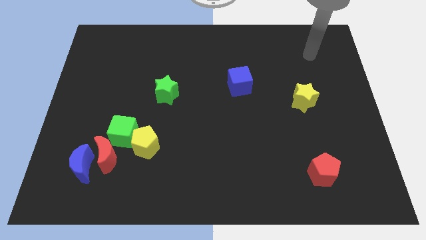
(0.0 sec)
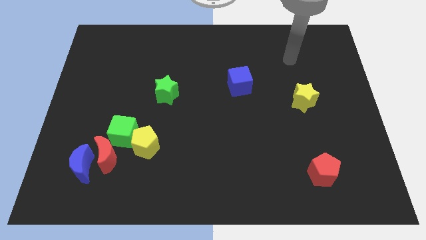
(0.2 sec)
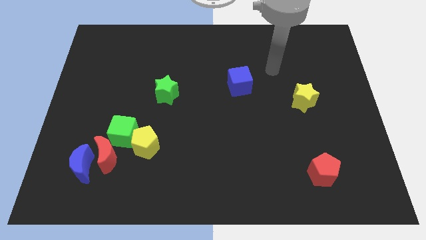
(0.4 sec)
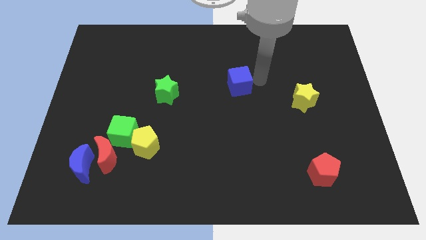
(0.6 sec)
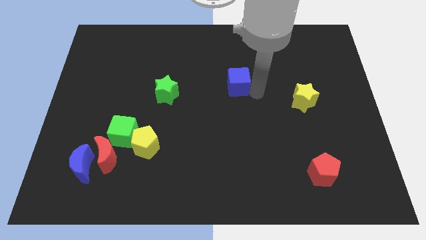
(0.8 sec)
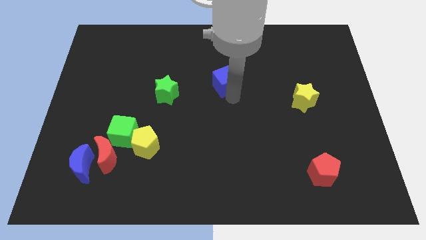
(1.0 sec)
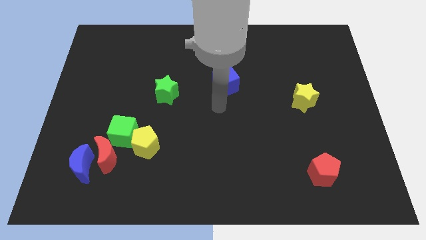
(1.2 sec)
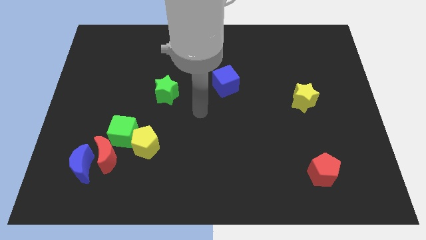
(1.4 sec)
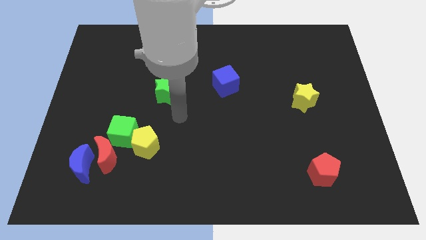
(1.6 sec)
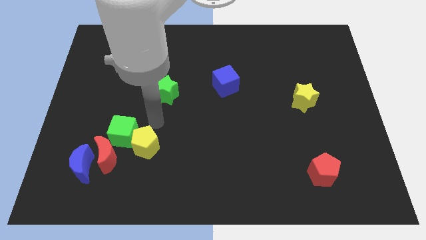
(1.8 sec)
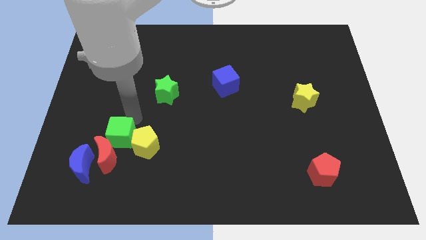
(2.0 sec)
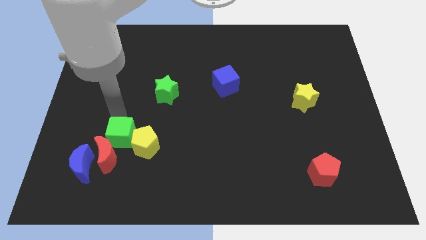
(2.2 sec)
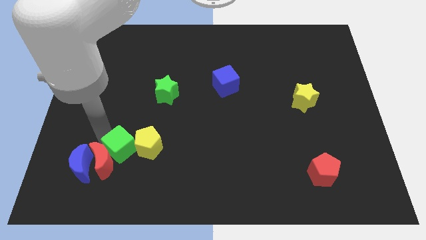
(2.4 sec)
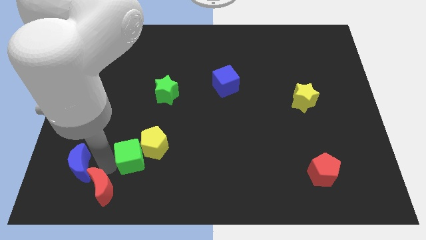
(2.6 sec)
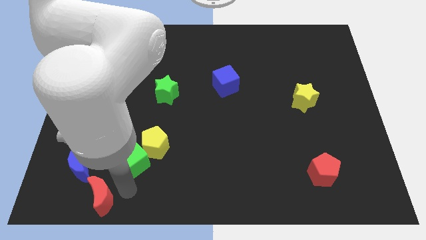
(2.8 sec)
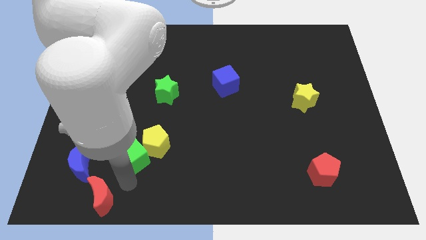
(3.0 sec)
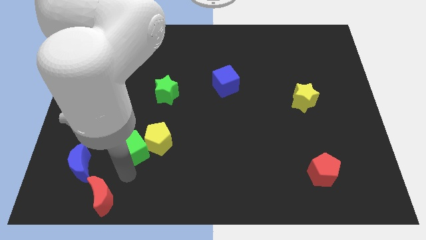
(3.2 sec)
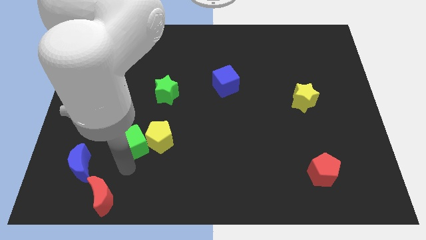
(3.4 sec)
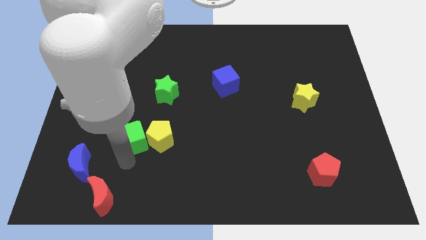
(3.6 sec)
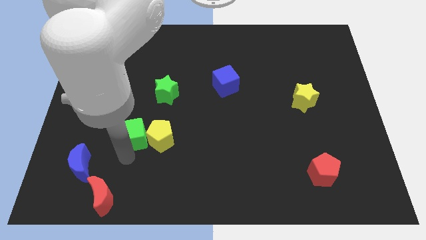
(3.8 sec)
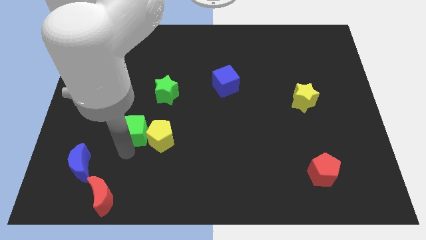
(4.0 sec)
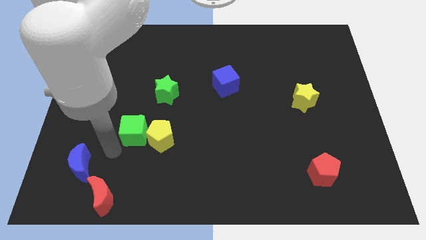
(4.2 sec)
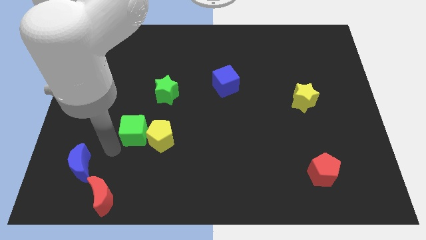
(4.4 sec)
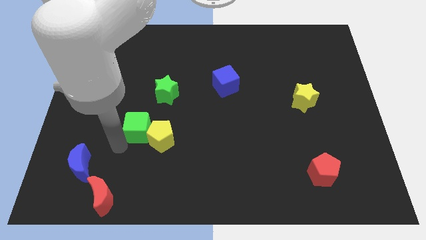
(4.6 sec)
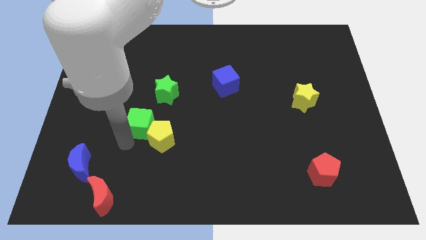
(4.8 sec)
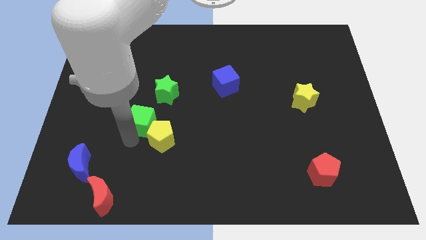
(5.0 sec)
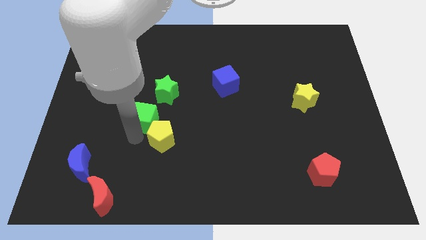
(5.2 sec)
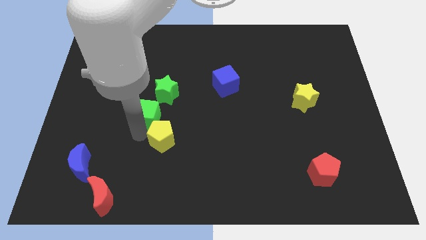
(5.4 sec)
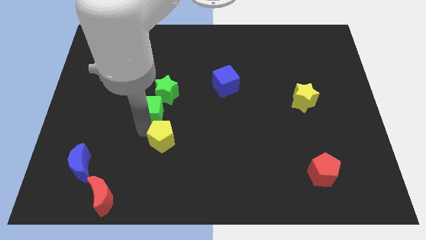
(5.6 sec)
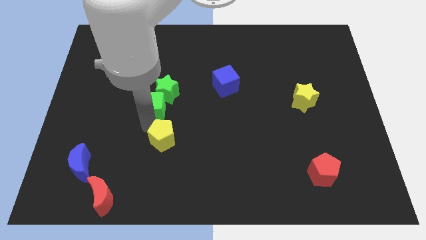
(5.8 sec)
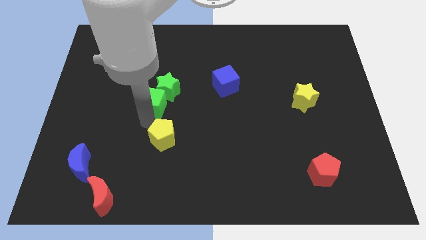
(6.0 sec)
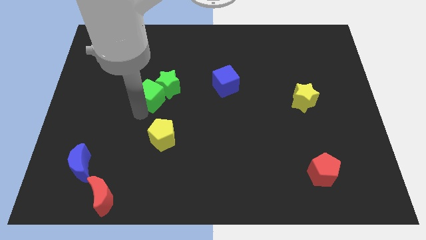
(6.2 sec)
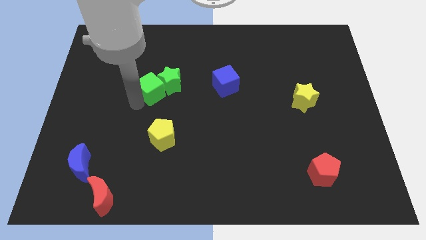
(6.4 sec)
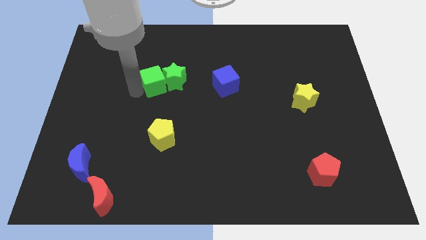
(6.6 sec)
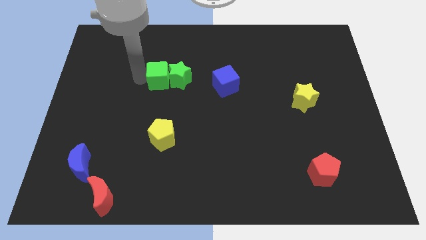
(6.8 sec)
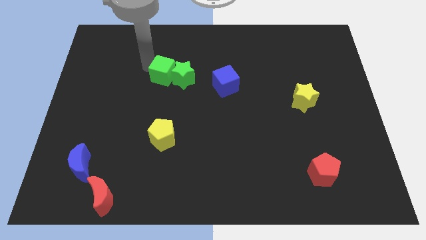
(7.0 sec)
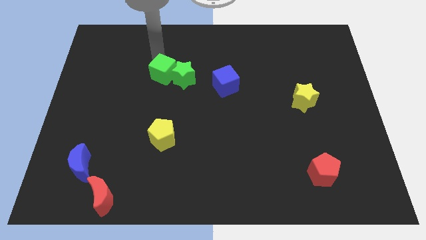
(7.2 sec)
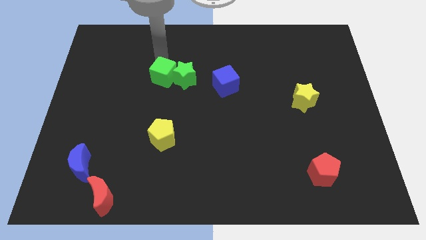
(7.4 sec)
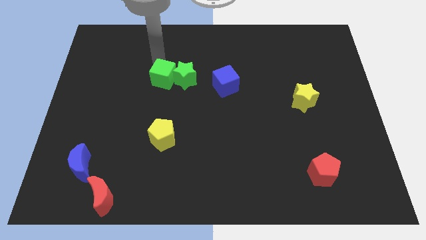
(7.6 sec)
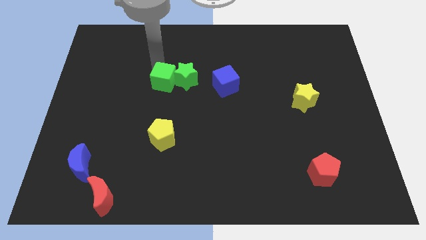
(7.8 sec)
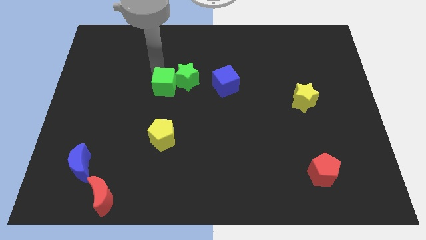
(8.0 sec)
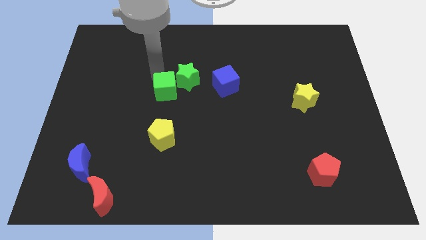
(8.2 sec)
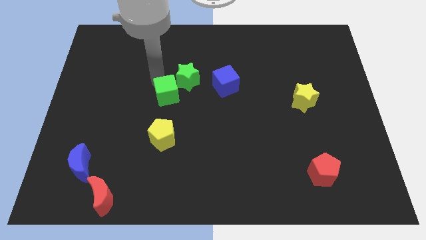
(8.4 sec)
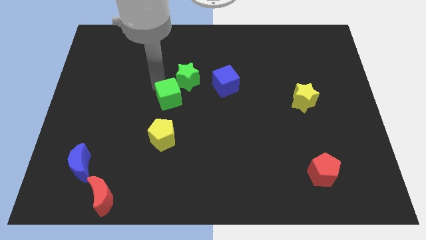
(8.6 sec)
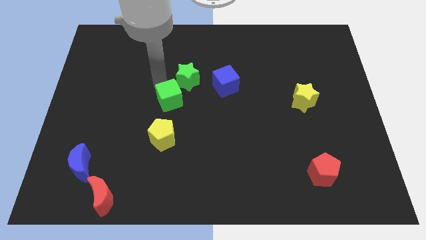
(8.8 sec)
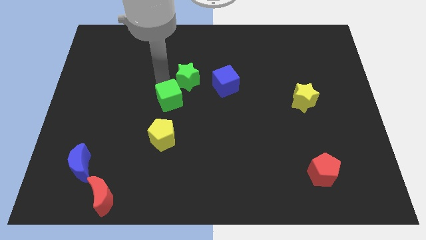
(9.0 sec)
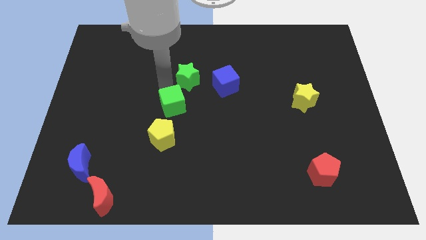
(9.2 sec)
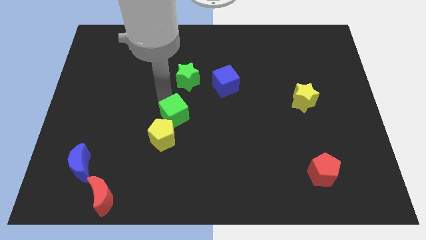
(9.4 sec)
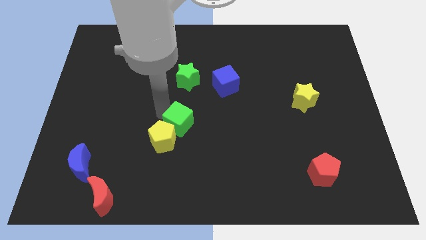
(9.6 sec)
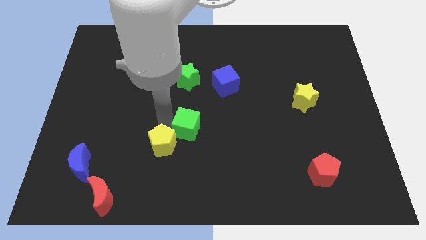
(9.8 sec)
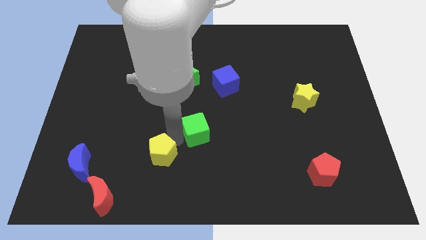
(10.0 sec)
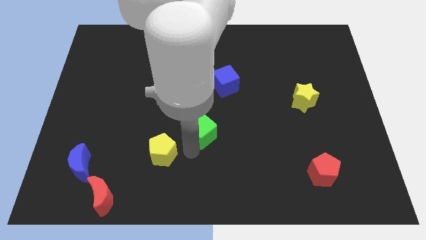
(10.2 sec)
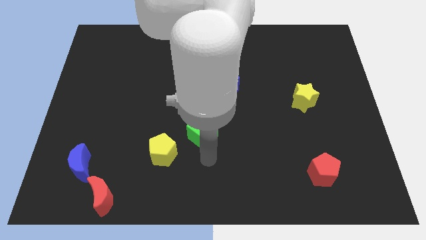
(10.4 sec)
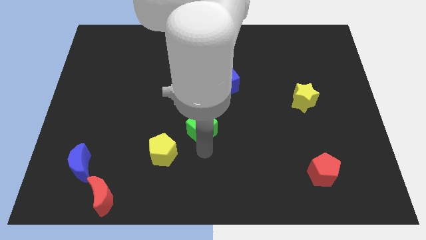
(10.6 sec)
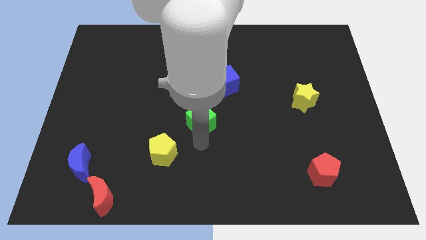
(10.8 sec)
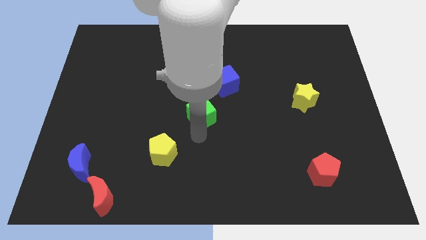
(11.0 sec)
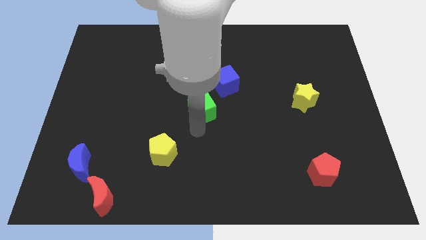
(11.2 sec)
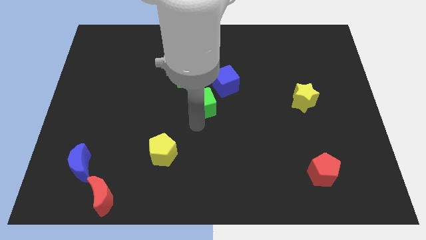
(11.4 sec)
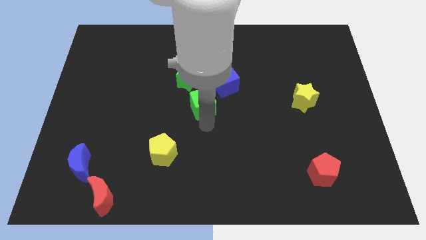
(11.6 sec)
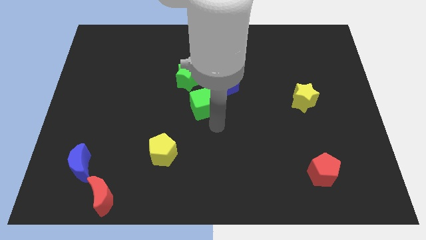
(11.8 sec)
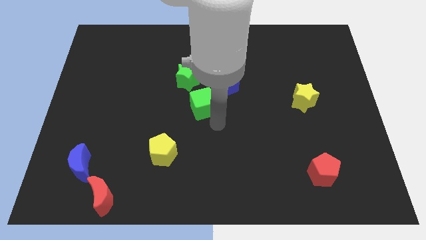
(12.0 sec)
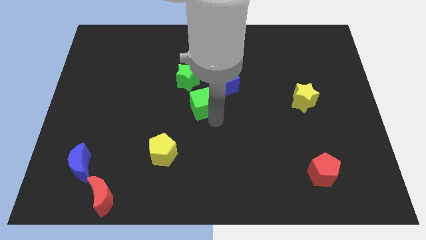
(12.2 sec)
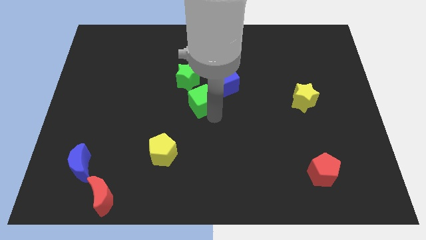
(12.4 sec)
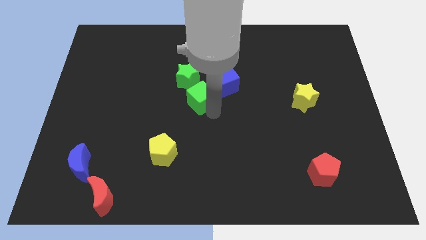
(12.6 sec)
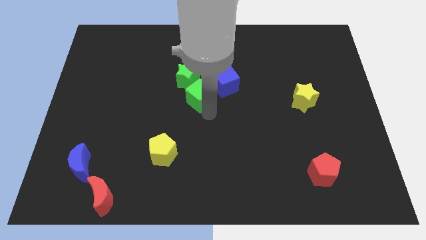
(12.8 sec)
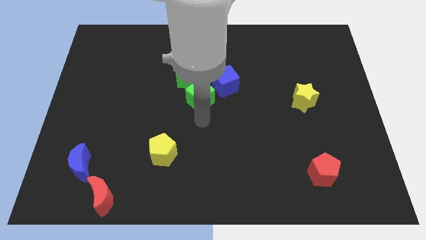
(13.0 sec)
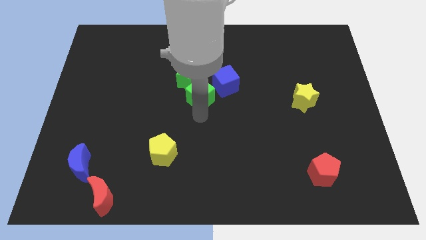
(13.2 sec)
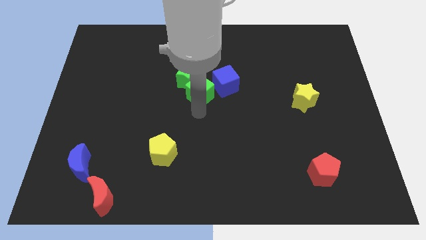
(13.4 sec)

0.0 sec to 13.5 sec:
move the green cube up and right diagonally

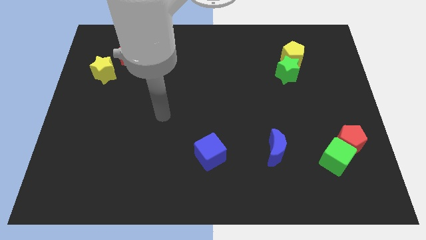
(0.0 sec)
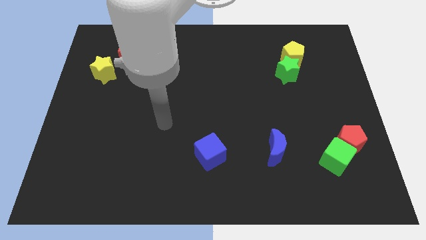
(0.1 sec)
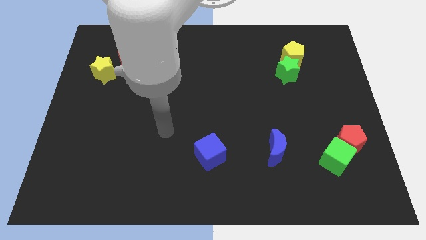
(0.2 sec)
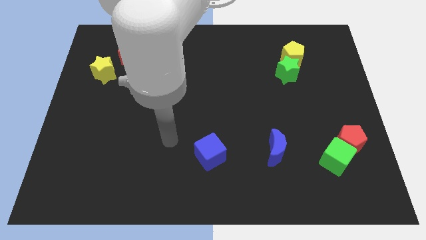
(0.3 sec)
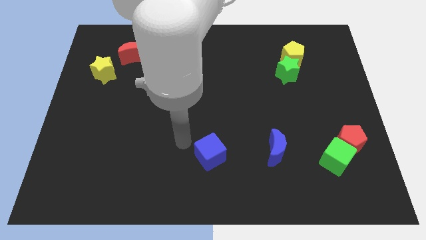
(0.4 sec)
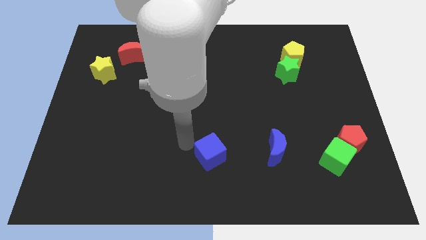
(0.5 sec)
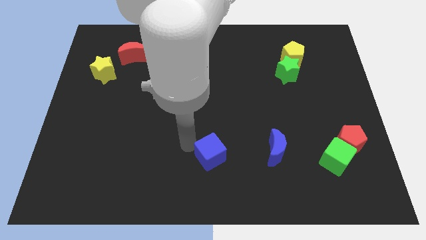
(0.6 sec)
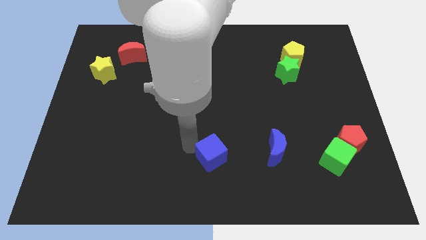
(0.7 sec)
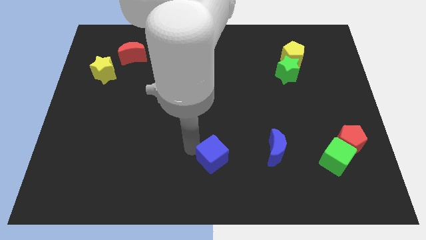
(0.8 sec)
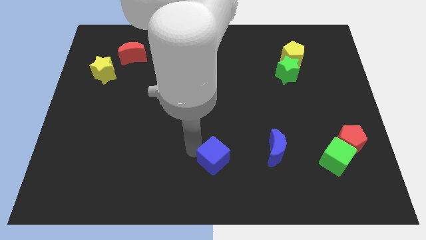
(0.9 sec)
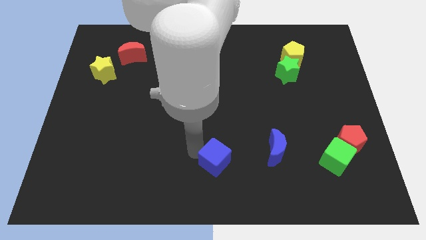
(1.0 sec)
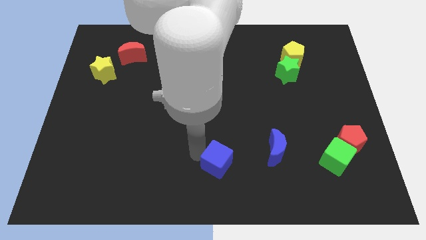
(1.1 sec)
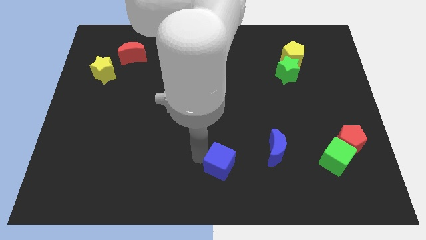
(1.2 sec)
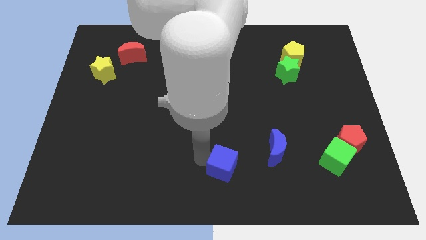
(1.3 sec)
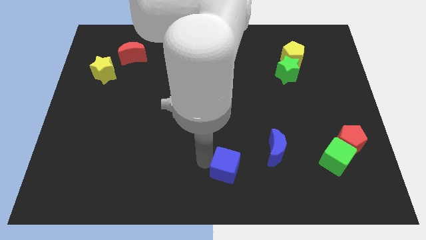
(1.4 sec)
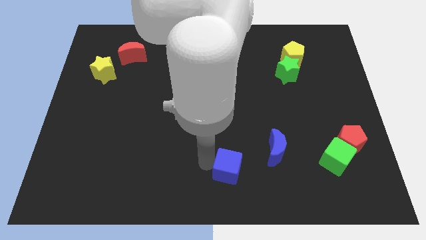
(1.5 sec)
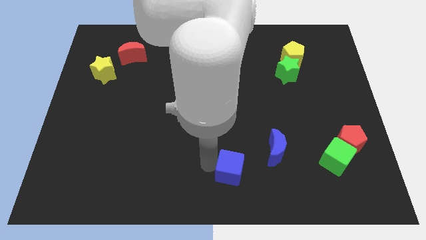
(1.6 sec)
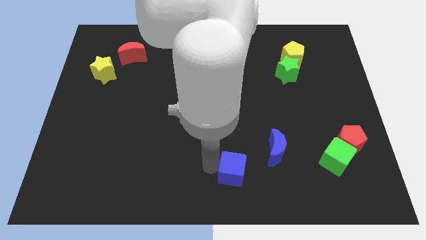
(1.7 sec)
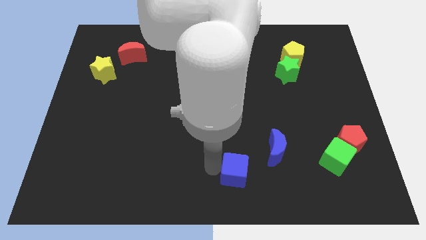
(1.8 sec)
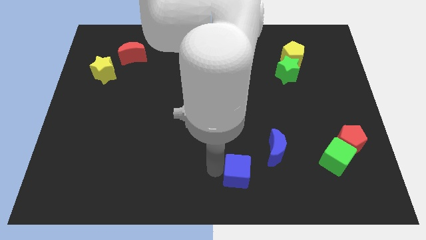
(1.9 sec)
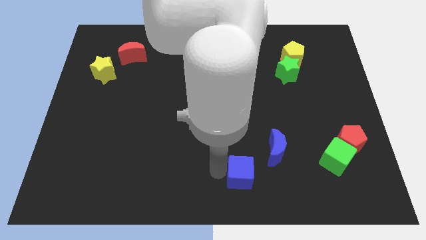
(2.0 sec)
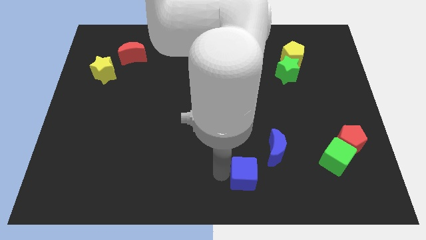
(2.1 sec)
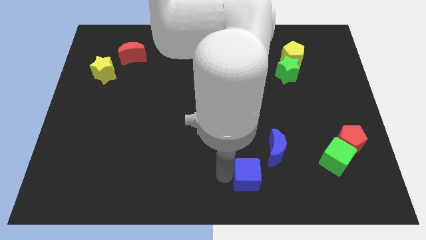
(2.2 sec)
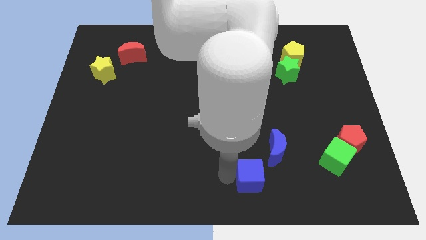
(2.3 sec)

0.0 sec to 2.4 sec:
slide the blue cube a bit to the right
